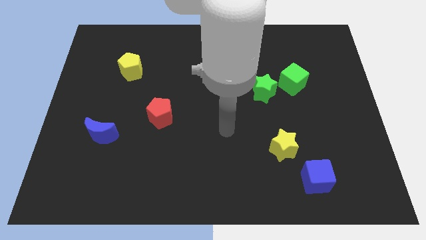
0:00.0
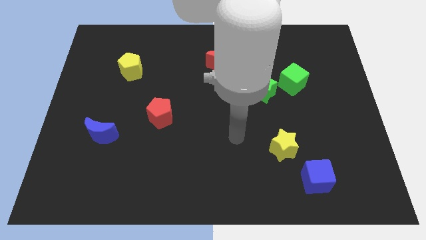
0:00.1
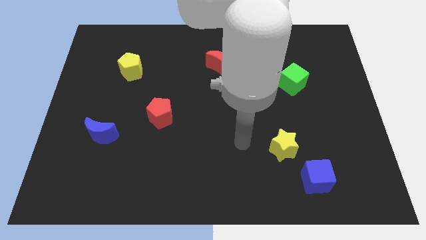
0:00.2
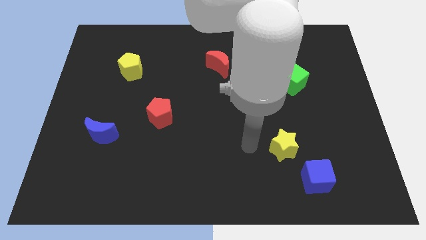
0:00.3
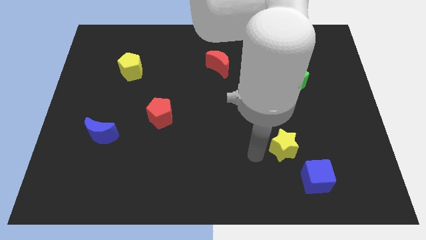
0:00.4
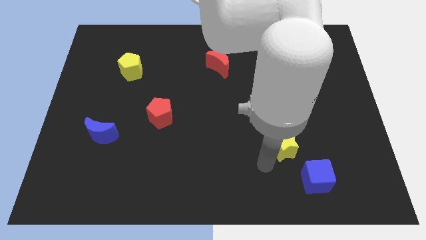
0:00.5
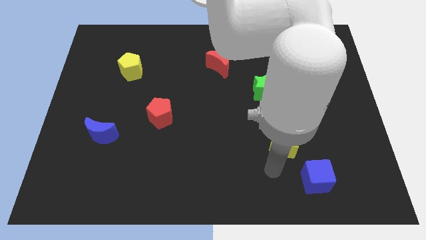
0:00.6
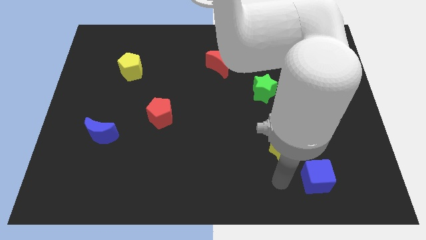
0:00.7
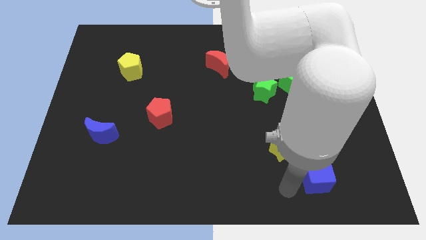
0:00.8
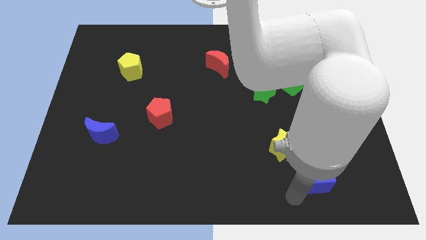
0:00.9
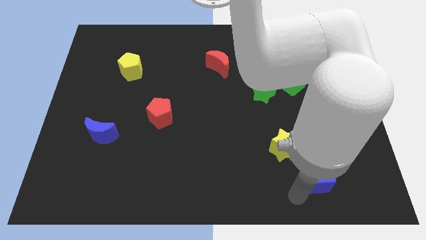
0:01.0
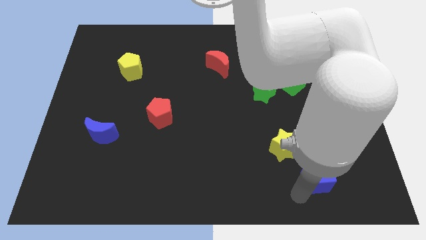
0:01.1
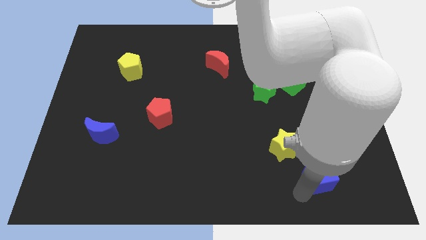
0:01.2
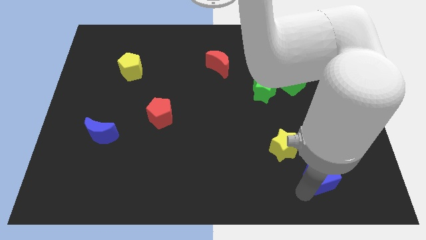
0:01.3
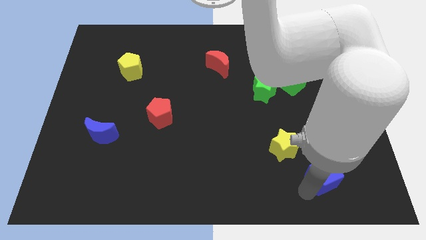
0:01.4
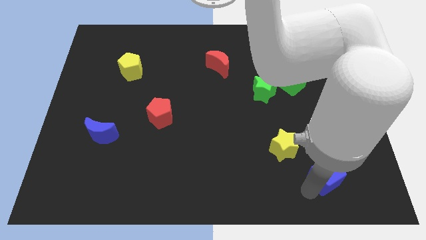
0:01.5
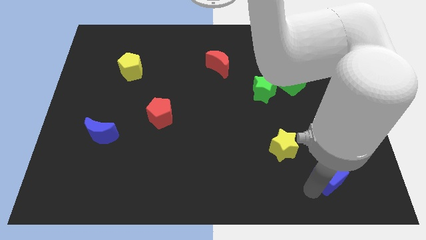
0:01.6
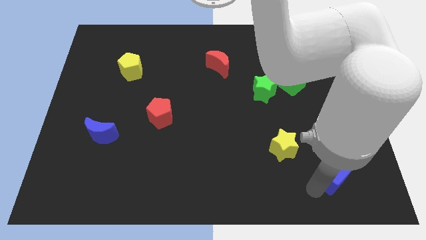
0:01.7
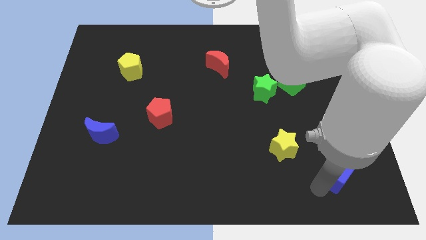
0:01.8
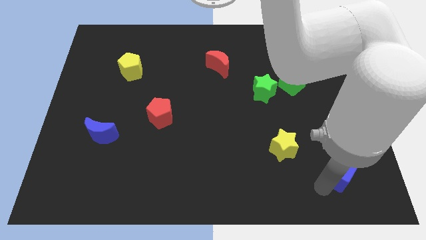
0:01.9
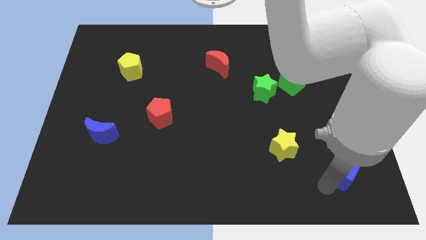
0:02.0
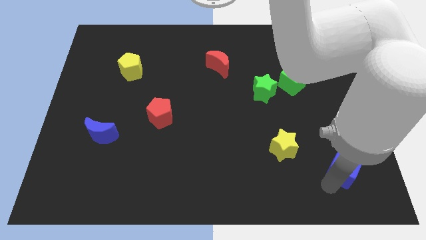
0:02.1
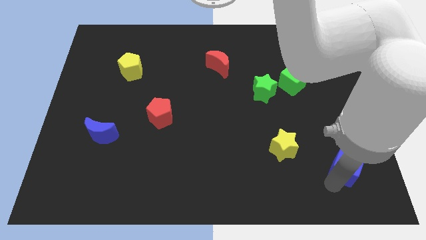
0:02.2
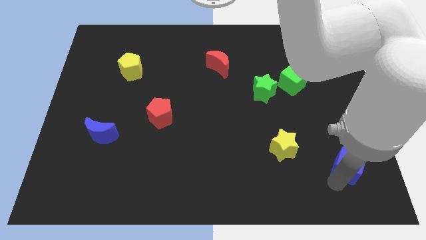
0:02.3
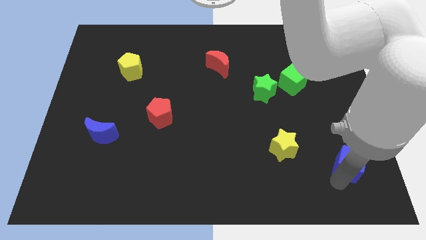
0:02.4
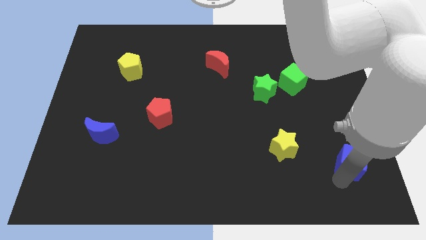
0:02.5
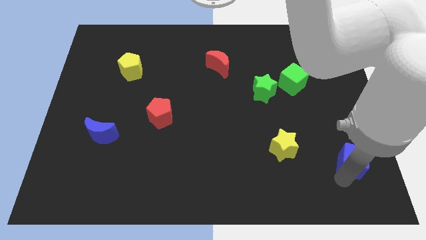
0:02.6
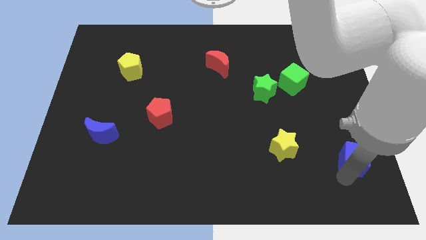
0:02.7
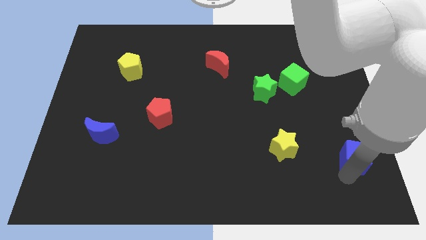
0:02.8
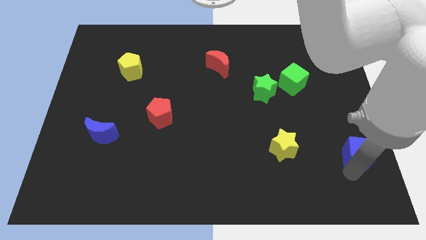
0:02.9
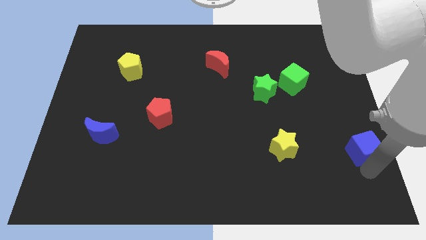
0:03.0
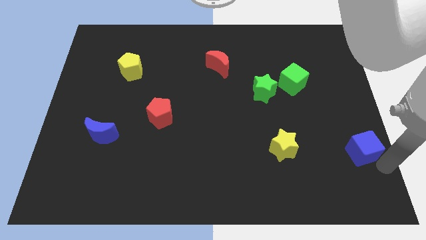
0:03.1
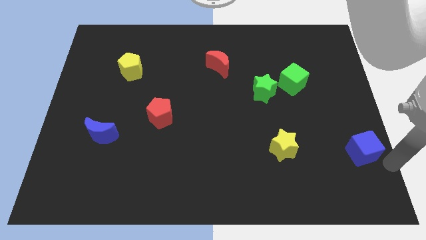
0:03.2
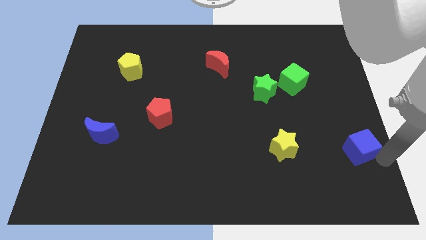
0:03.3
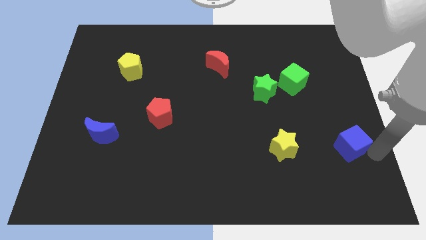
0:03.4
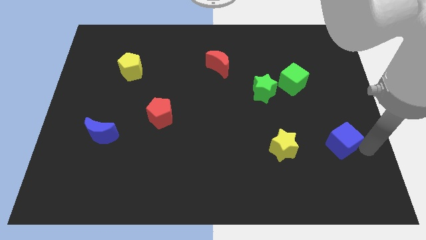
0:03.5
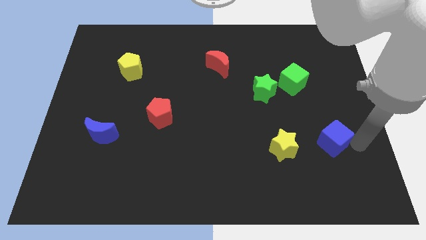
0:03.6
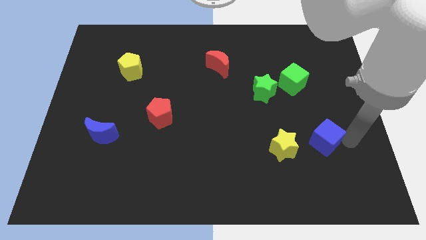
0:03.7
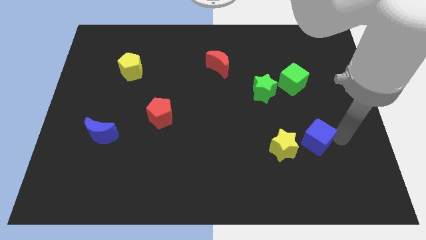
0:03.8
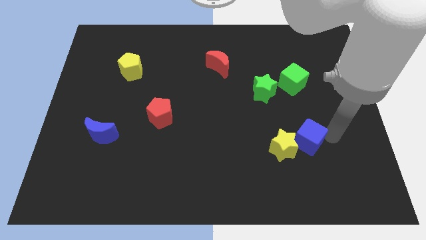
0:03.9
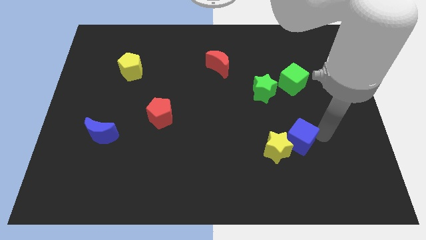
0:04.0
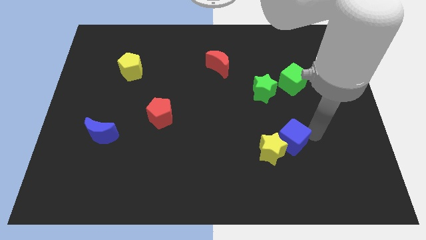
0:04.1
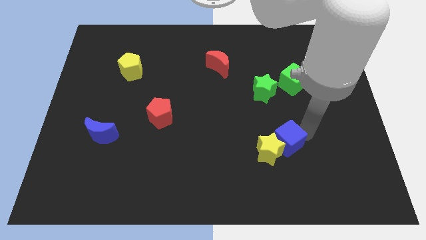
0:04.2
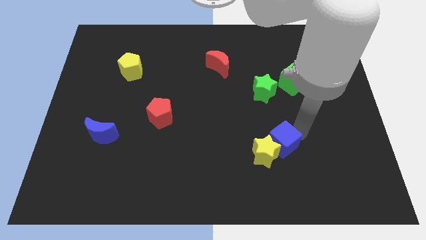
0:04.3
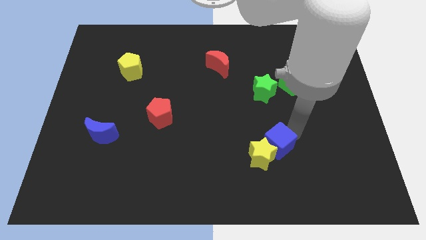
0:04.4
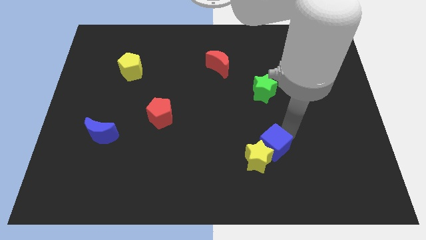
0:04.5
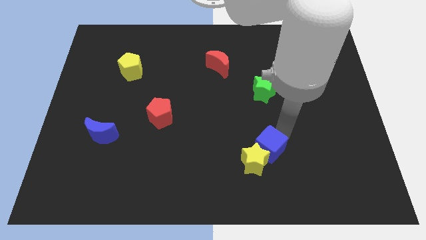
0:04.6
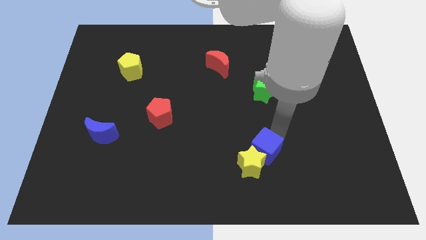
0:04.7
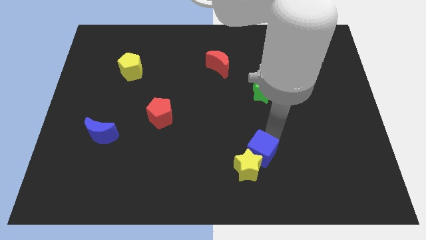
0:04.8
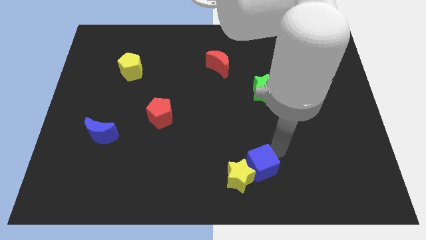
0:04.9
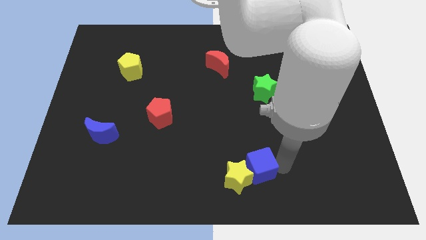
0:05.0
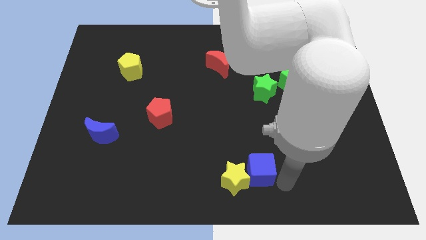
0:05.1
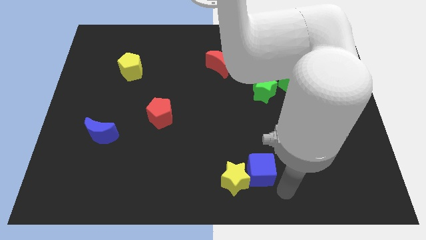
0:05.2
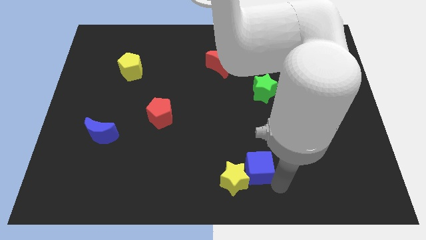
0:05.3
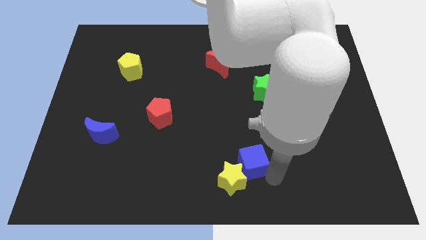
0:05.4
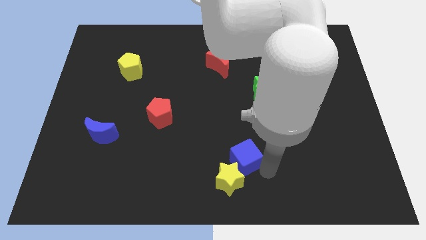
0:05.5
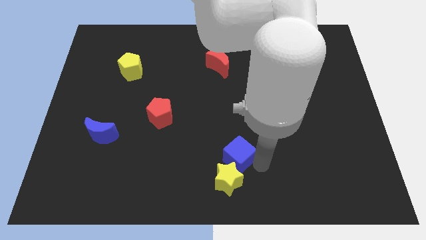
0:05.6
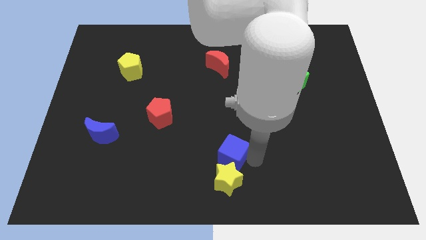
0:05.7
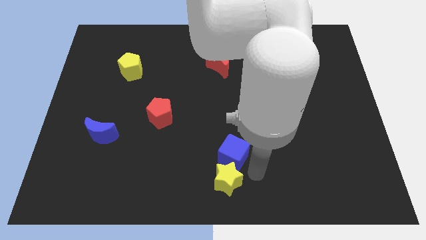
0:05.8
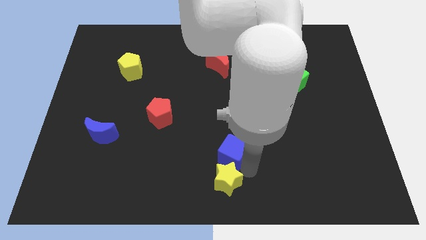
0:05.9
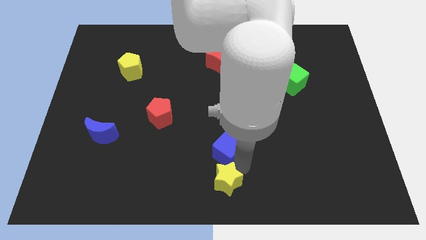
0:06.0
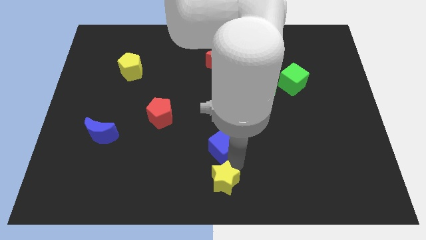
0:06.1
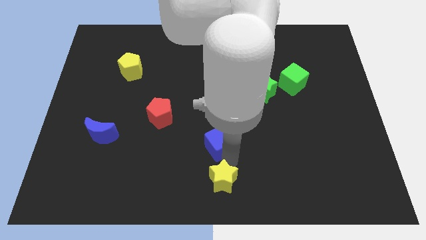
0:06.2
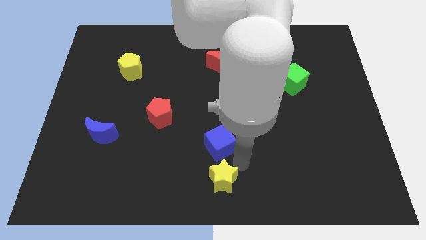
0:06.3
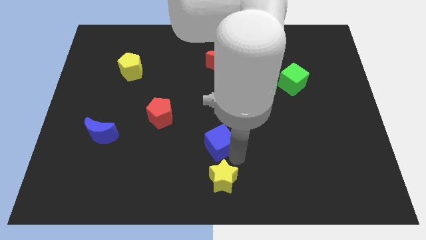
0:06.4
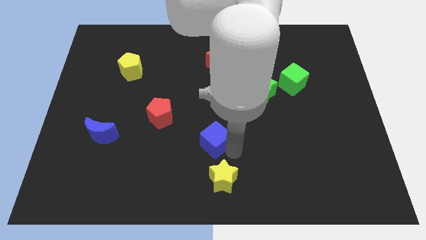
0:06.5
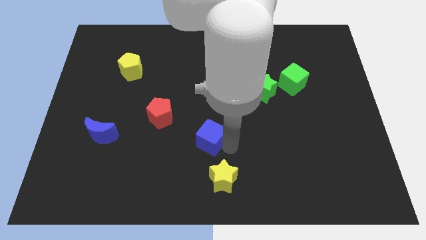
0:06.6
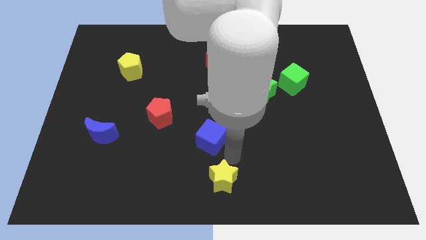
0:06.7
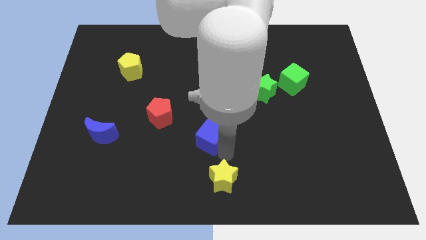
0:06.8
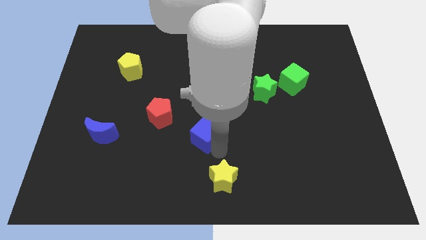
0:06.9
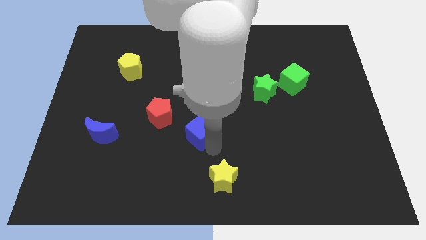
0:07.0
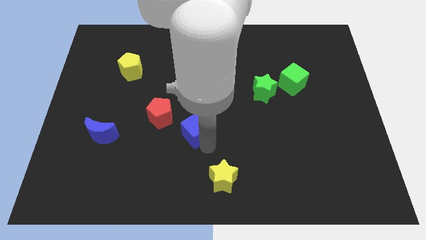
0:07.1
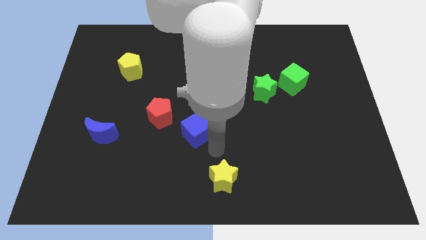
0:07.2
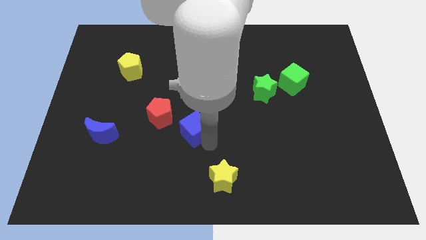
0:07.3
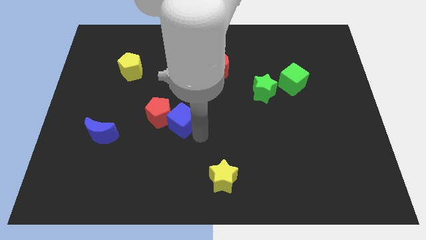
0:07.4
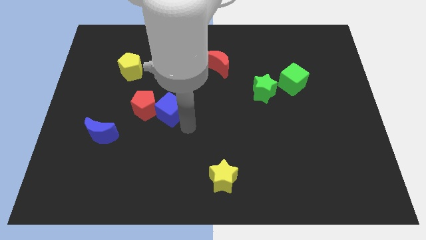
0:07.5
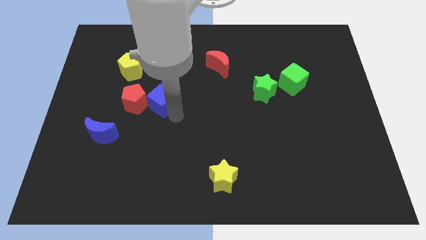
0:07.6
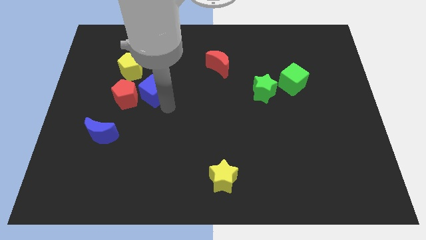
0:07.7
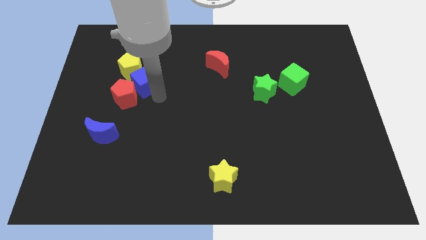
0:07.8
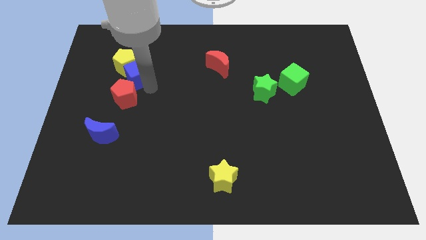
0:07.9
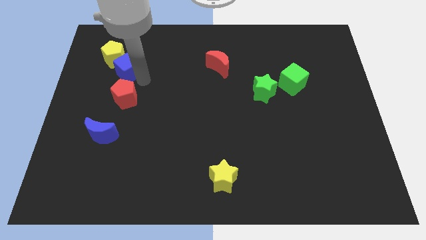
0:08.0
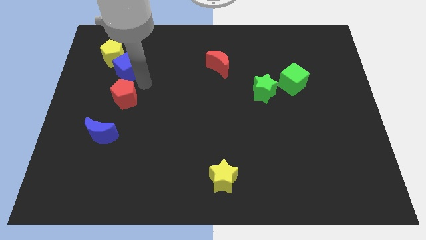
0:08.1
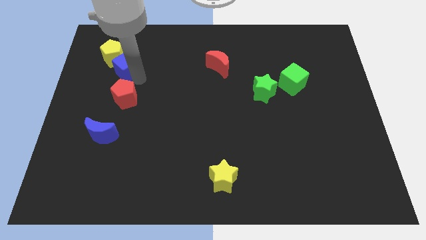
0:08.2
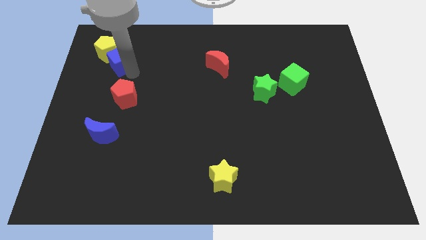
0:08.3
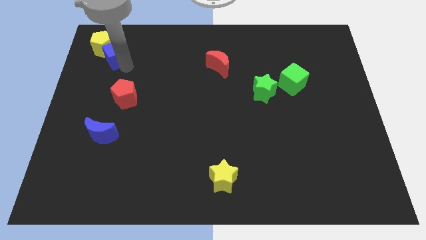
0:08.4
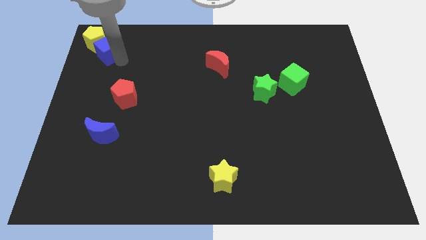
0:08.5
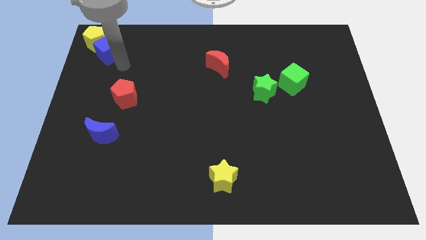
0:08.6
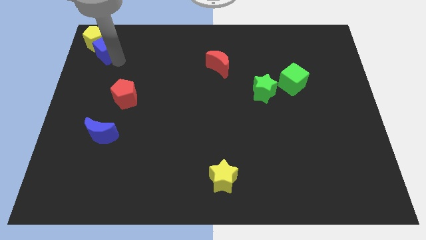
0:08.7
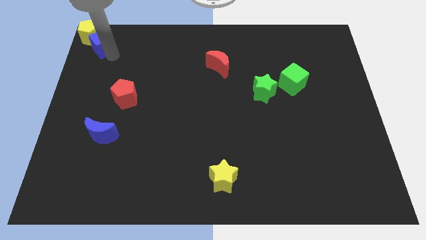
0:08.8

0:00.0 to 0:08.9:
push the blue cube to the top left
